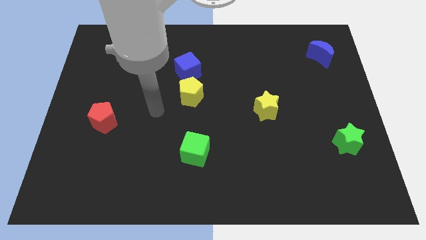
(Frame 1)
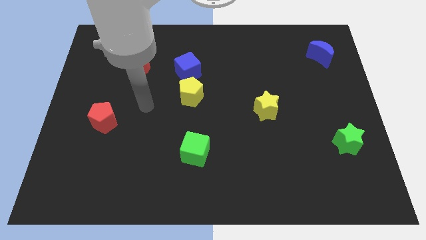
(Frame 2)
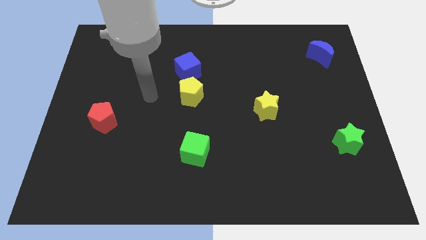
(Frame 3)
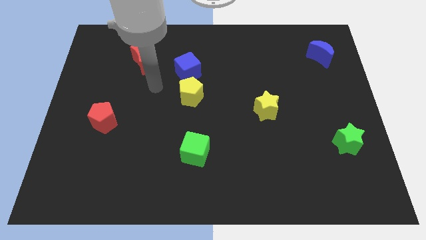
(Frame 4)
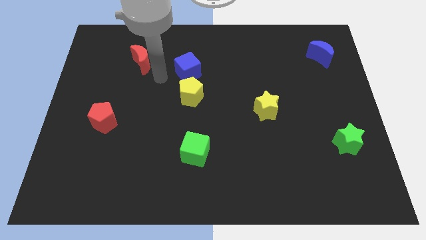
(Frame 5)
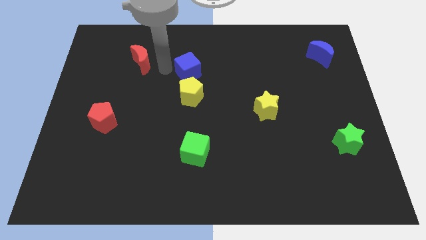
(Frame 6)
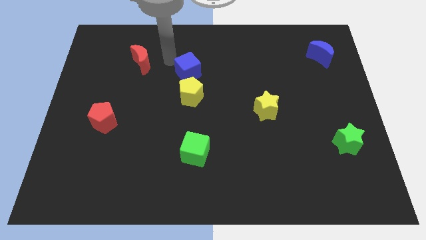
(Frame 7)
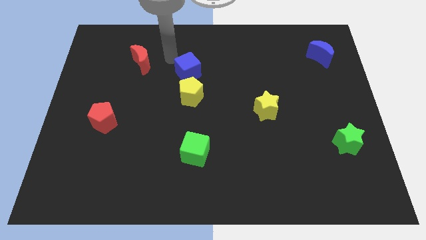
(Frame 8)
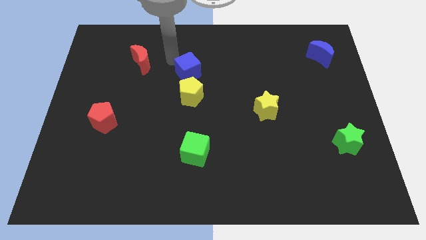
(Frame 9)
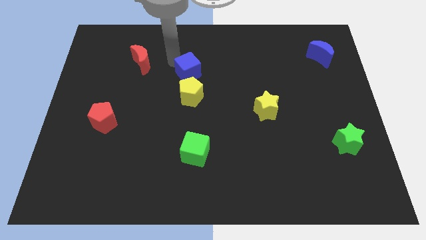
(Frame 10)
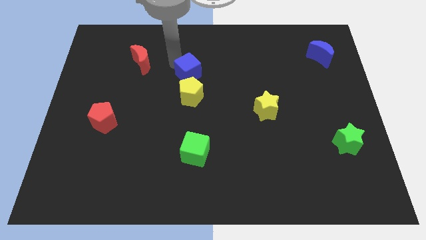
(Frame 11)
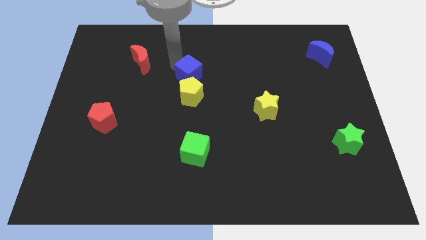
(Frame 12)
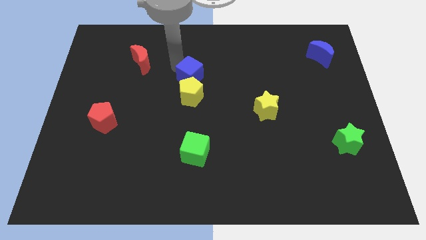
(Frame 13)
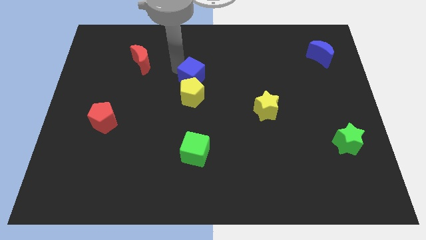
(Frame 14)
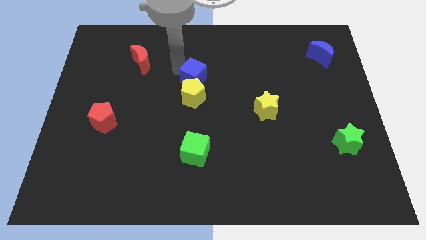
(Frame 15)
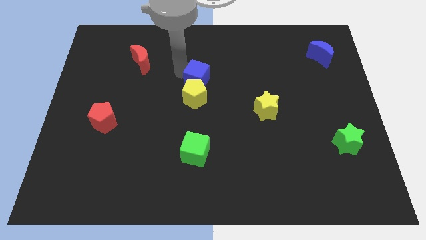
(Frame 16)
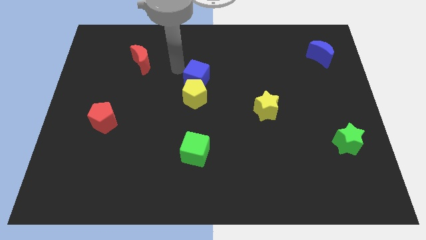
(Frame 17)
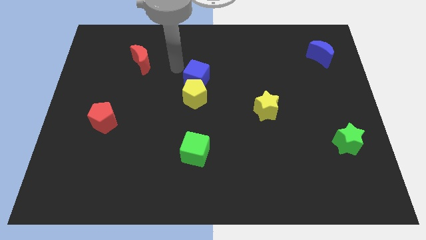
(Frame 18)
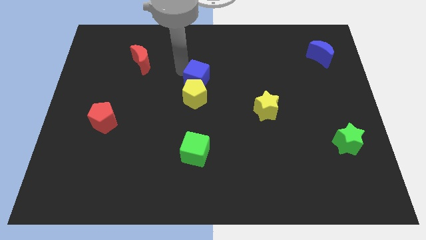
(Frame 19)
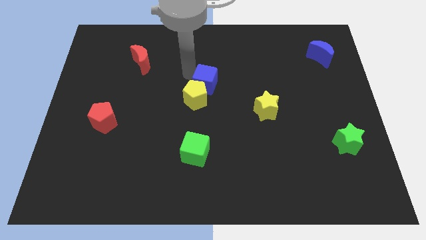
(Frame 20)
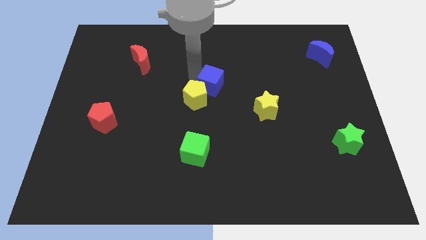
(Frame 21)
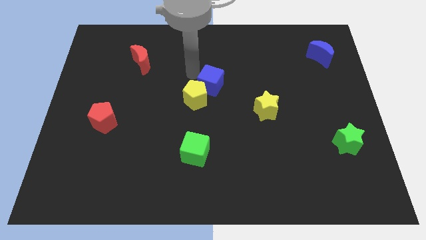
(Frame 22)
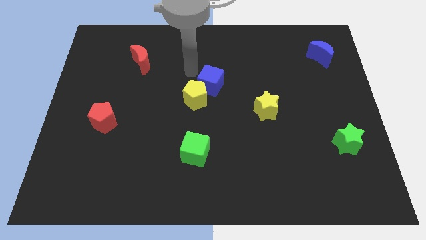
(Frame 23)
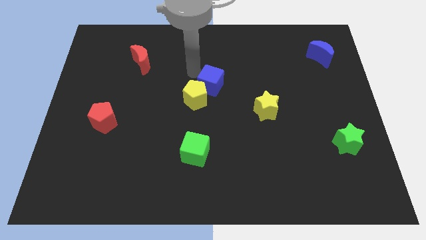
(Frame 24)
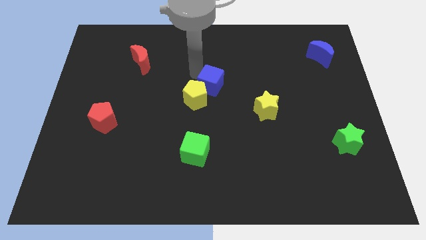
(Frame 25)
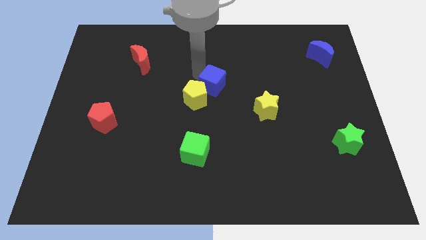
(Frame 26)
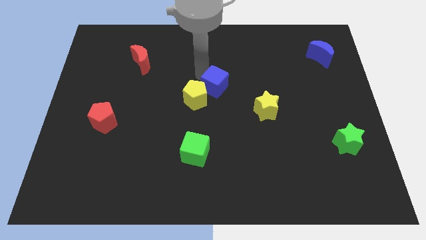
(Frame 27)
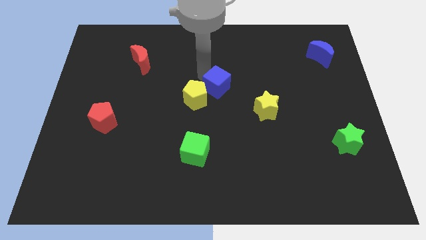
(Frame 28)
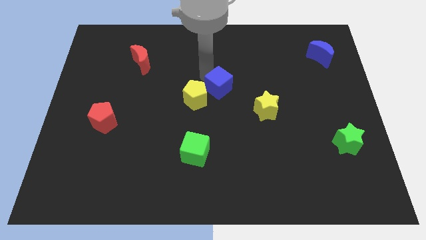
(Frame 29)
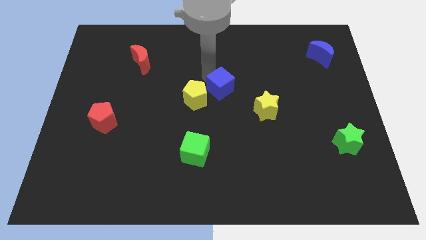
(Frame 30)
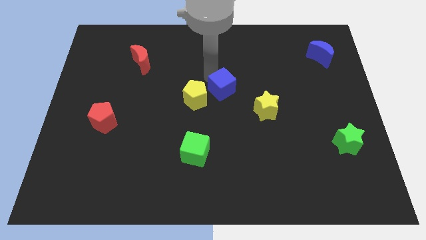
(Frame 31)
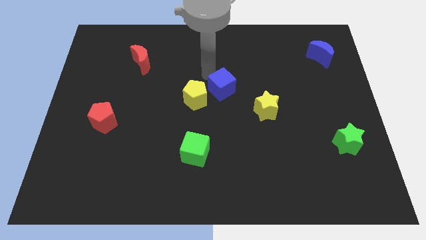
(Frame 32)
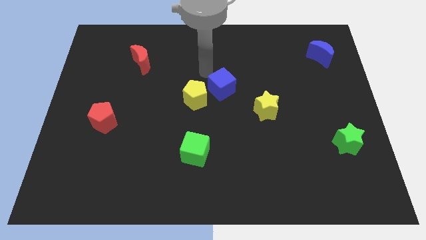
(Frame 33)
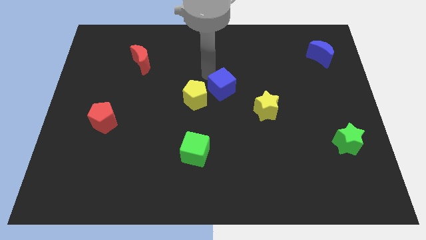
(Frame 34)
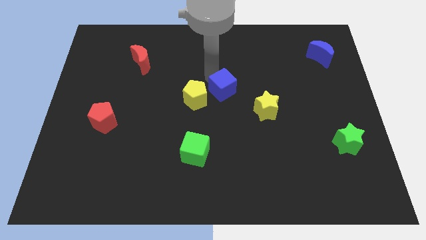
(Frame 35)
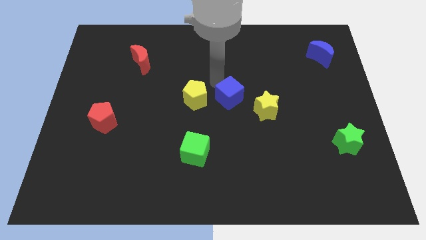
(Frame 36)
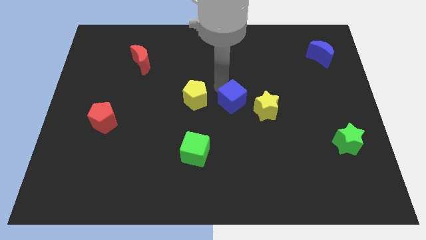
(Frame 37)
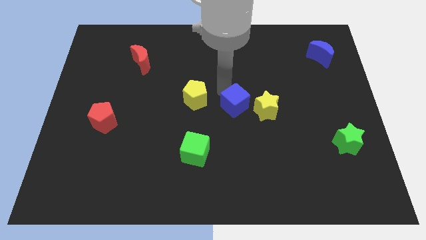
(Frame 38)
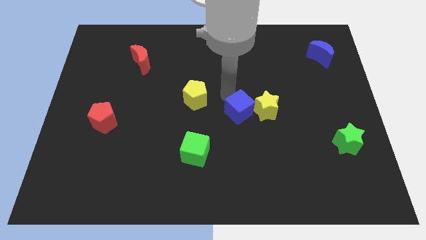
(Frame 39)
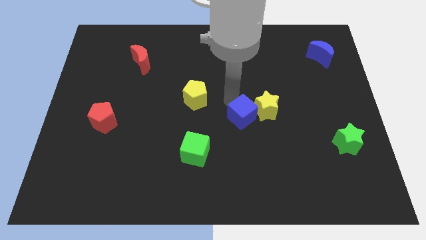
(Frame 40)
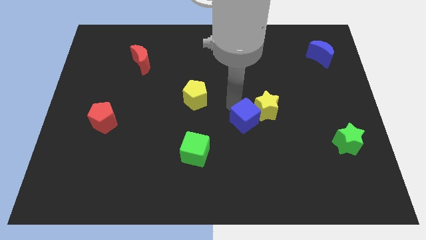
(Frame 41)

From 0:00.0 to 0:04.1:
slide the blue cube down and right

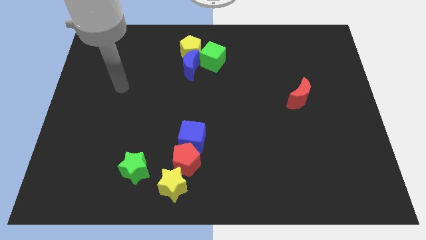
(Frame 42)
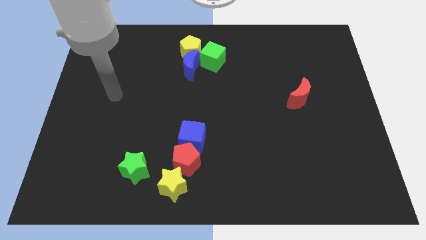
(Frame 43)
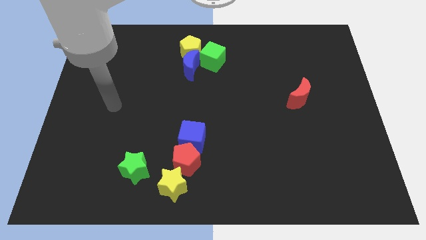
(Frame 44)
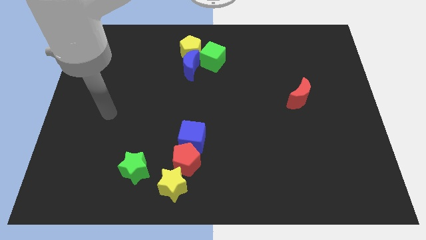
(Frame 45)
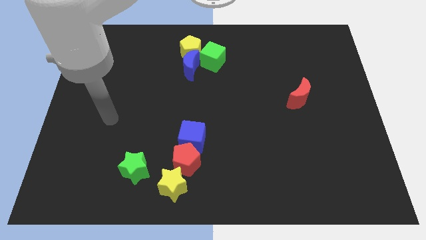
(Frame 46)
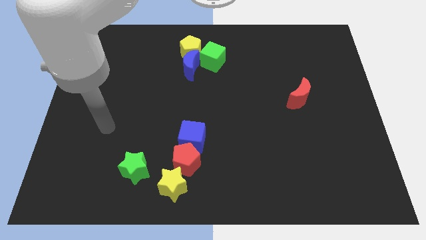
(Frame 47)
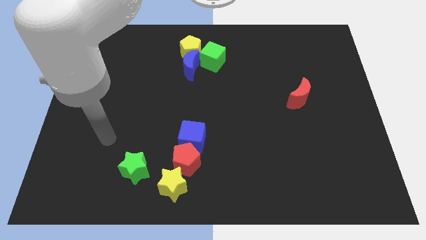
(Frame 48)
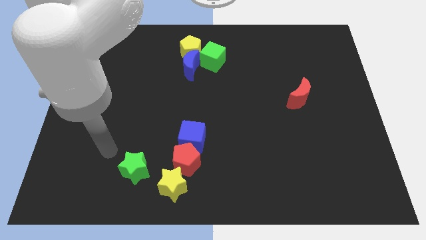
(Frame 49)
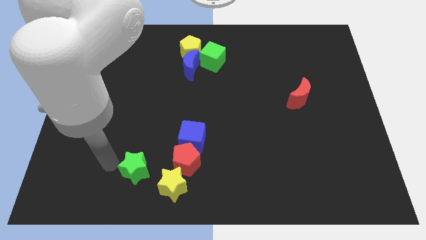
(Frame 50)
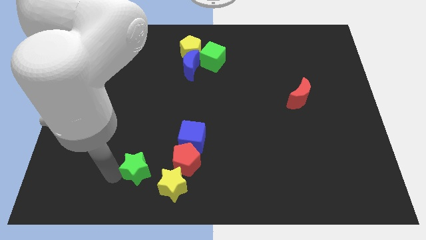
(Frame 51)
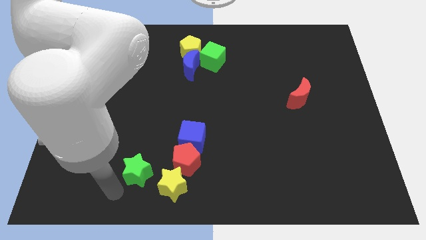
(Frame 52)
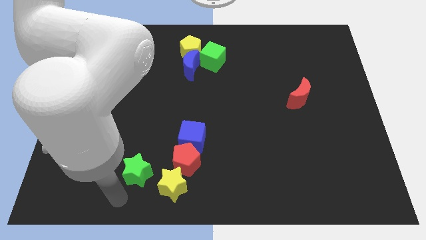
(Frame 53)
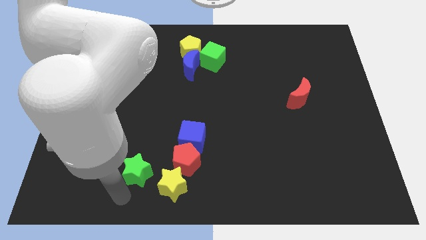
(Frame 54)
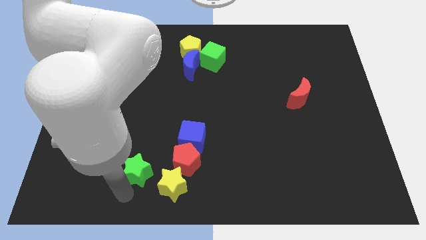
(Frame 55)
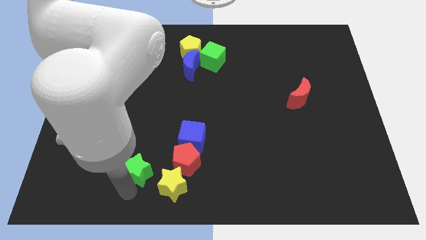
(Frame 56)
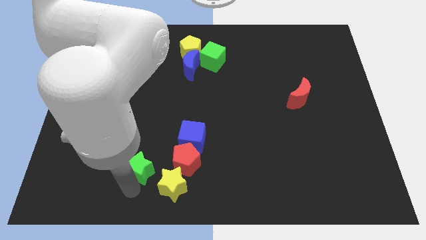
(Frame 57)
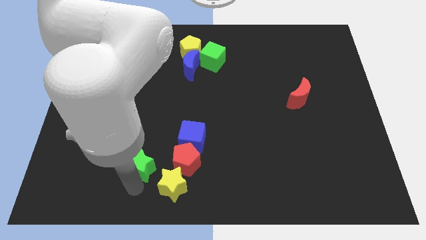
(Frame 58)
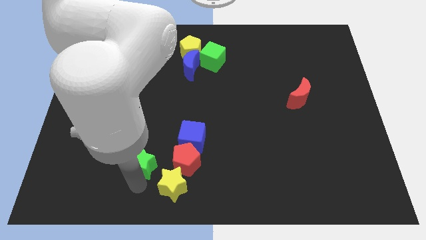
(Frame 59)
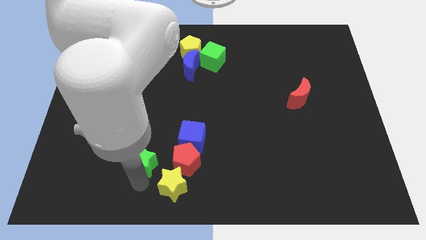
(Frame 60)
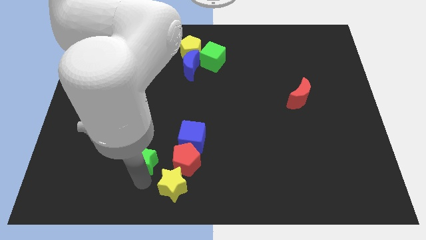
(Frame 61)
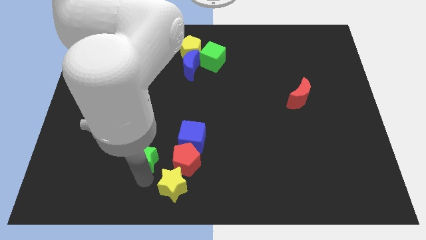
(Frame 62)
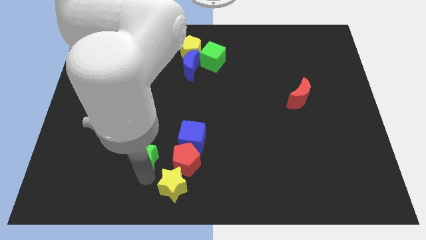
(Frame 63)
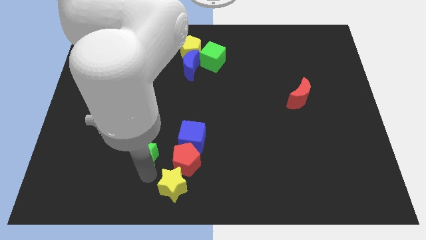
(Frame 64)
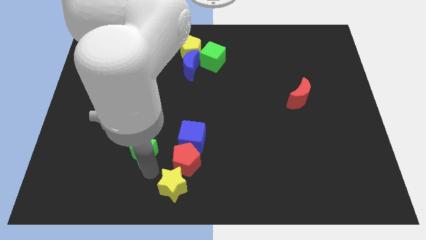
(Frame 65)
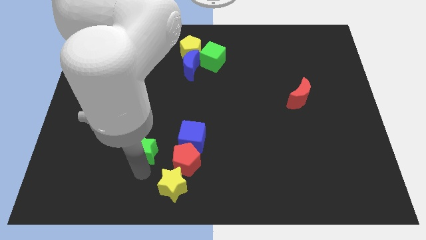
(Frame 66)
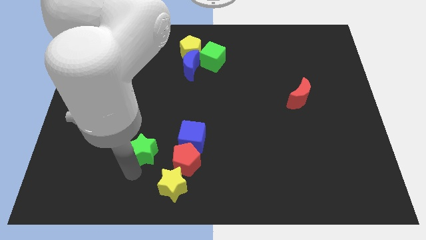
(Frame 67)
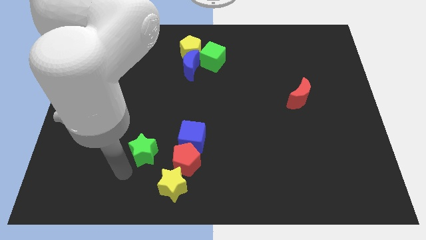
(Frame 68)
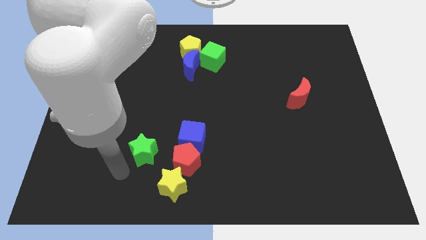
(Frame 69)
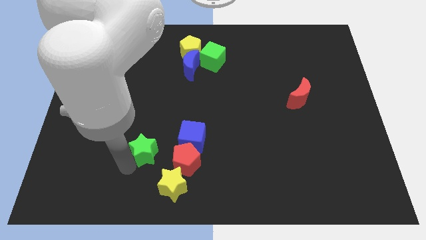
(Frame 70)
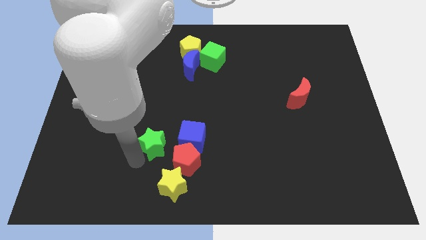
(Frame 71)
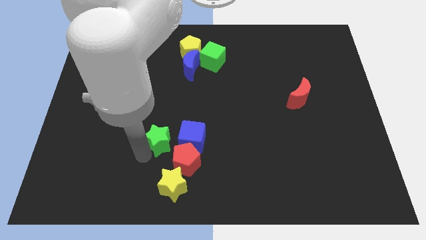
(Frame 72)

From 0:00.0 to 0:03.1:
slide the green star up and then to the right a bit

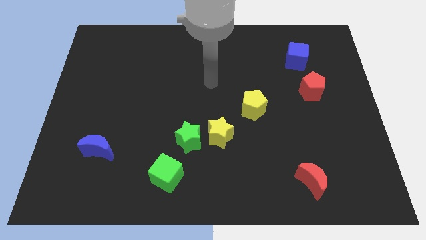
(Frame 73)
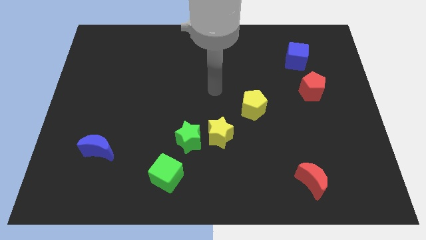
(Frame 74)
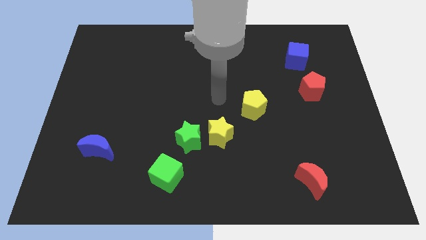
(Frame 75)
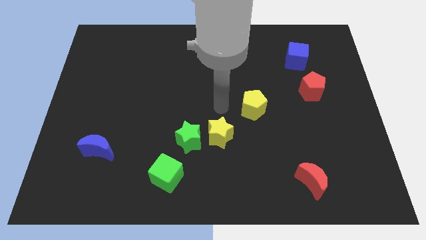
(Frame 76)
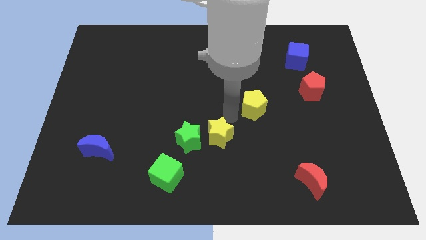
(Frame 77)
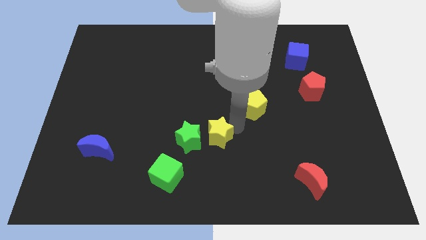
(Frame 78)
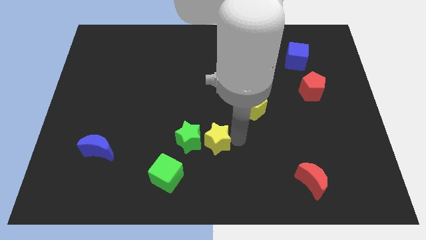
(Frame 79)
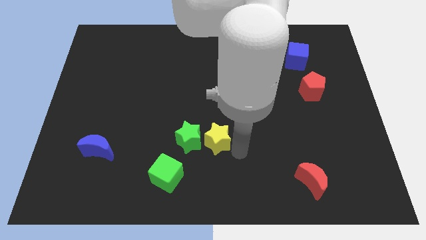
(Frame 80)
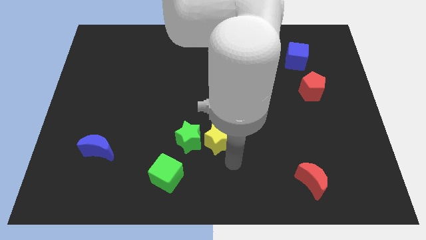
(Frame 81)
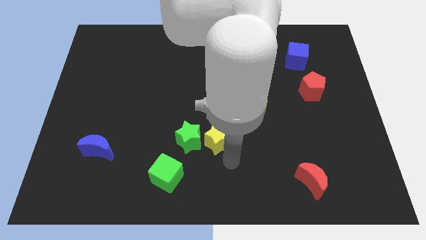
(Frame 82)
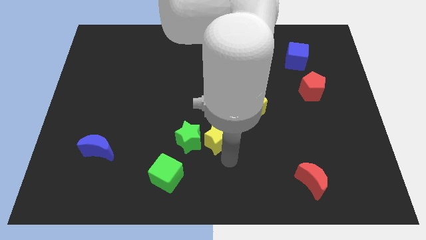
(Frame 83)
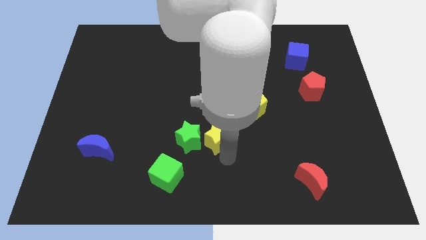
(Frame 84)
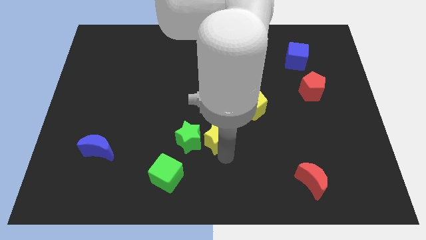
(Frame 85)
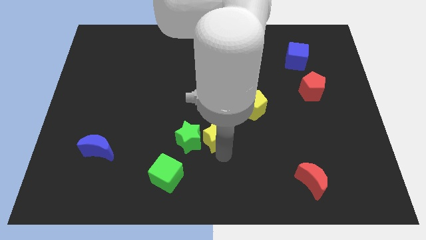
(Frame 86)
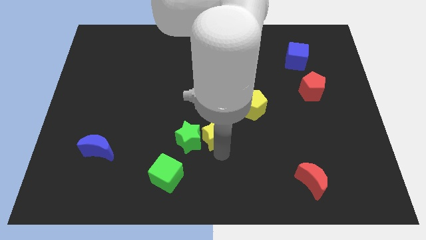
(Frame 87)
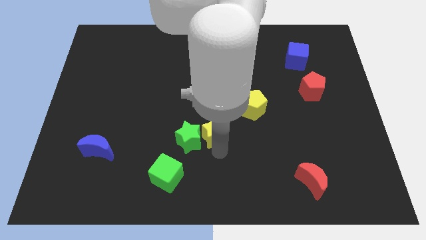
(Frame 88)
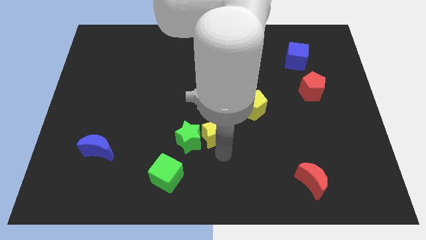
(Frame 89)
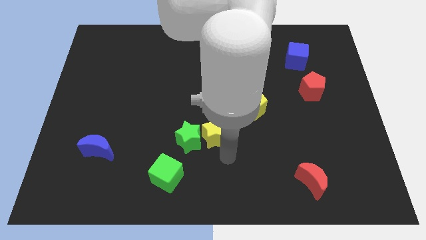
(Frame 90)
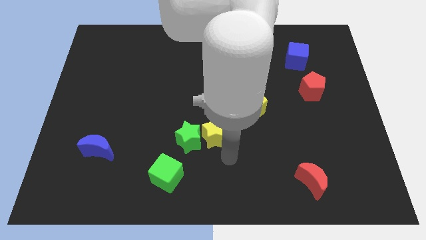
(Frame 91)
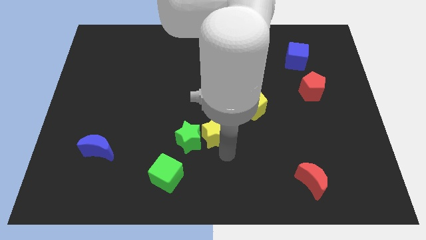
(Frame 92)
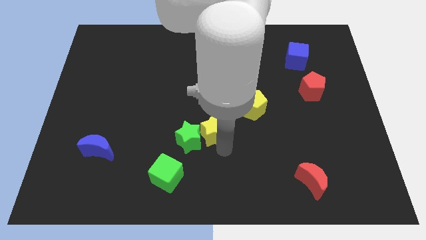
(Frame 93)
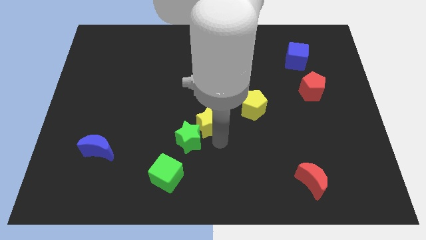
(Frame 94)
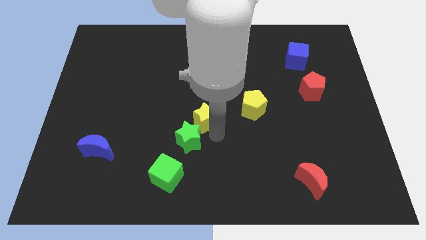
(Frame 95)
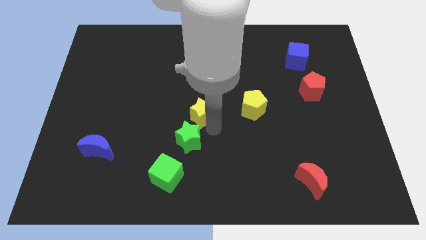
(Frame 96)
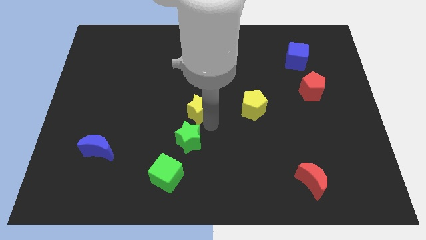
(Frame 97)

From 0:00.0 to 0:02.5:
slightly slide the yellow star diagonally up and to the left
